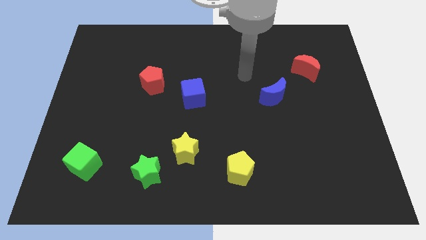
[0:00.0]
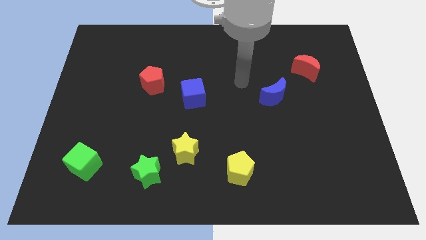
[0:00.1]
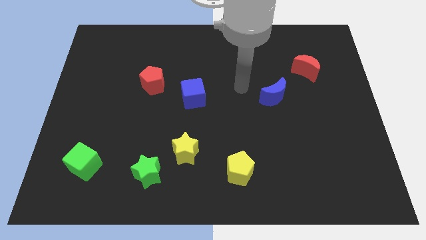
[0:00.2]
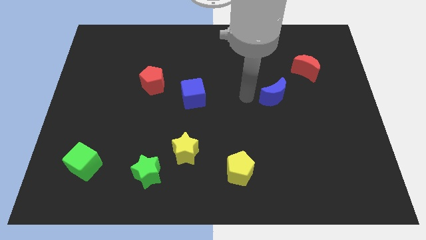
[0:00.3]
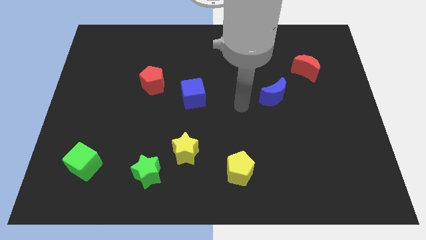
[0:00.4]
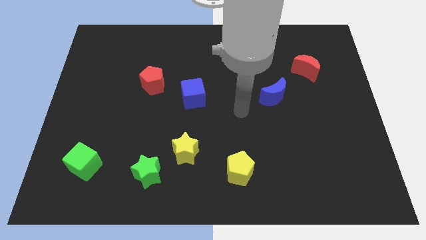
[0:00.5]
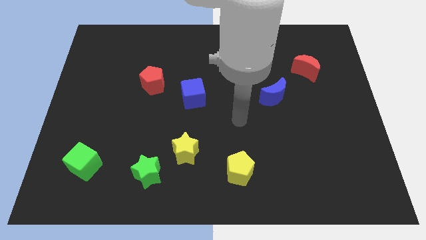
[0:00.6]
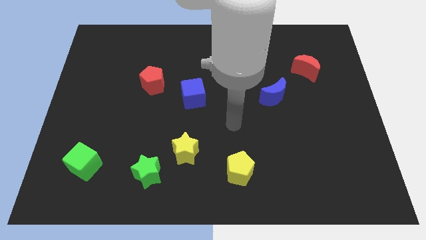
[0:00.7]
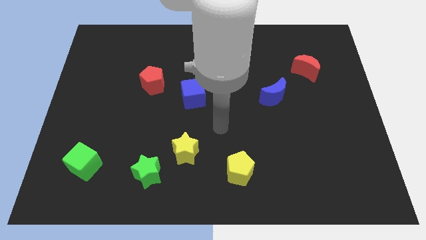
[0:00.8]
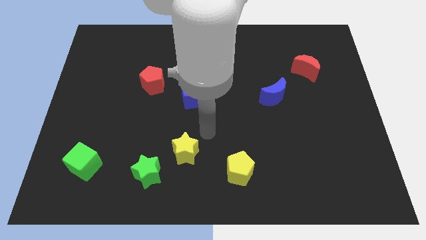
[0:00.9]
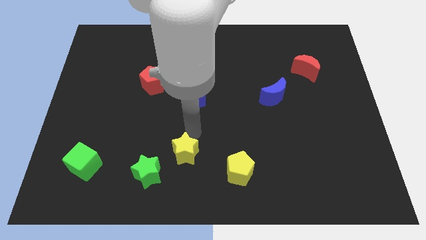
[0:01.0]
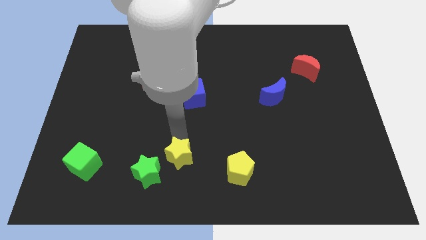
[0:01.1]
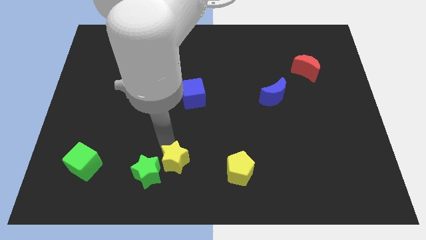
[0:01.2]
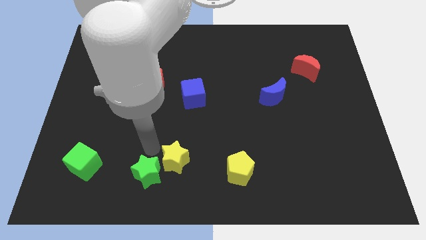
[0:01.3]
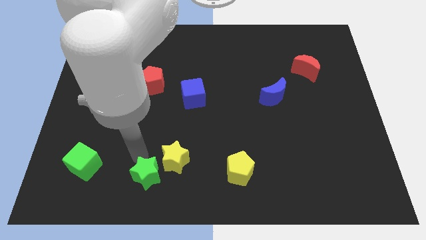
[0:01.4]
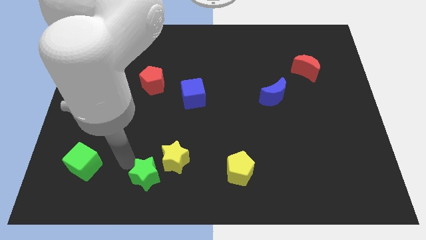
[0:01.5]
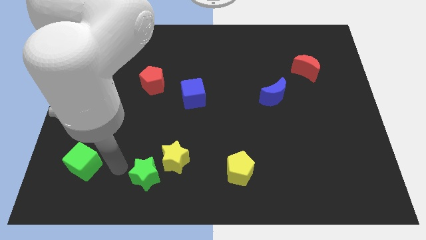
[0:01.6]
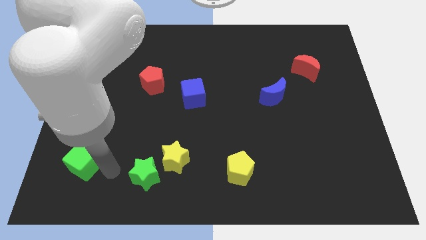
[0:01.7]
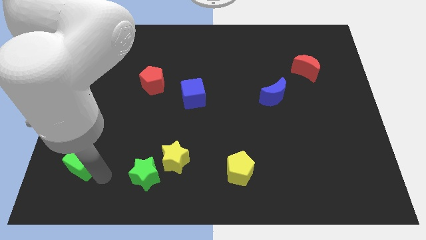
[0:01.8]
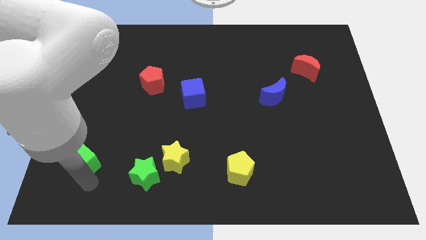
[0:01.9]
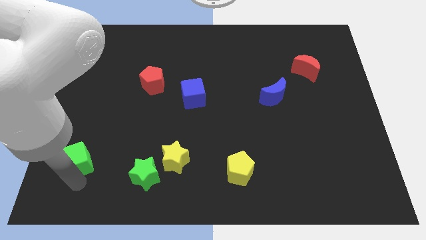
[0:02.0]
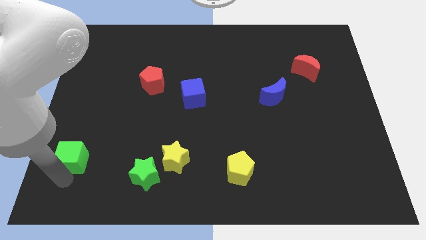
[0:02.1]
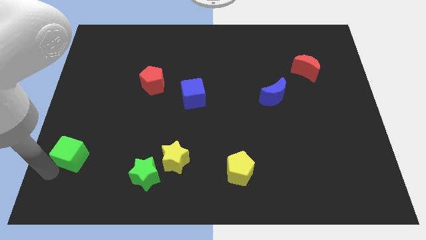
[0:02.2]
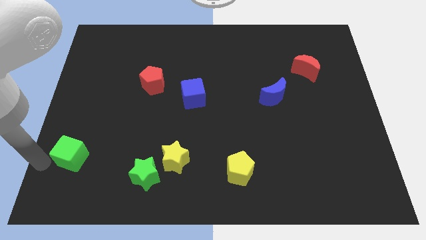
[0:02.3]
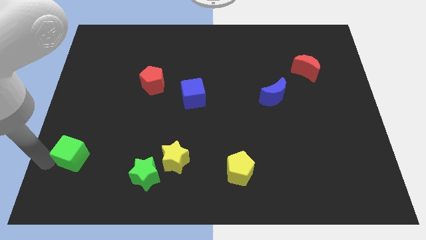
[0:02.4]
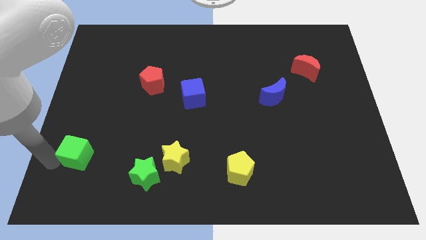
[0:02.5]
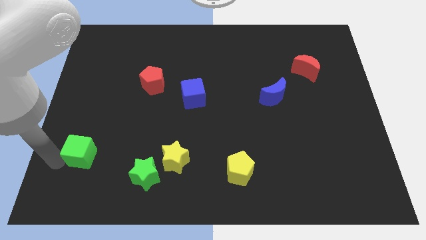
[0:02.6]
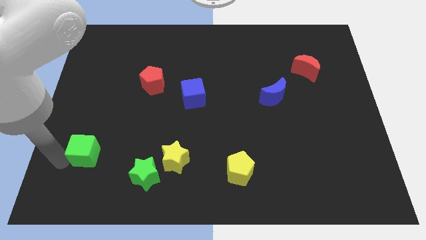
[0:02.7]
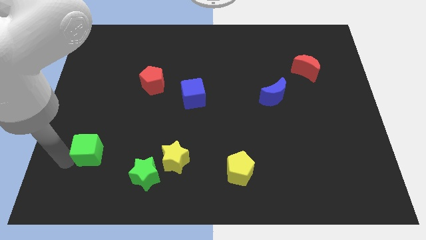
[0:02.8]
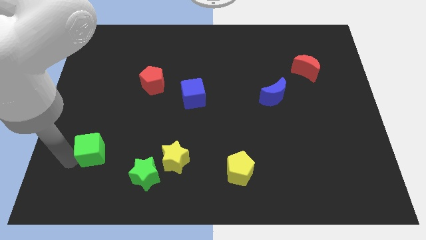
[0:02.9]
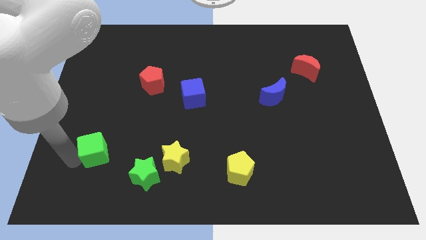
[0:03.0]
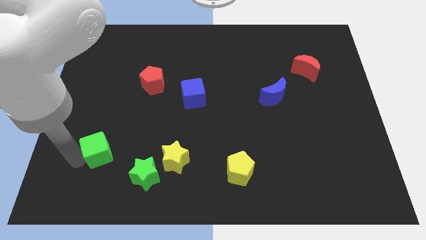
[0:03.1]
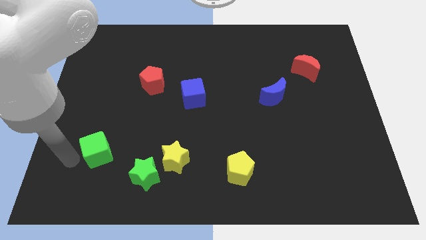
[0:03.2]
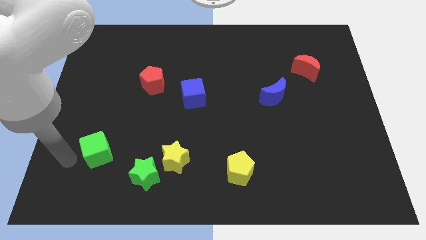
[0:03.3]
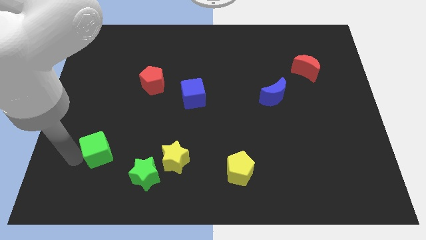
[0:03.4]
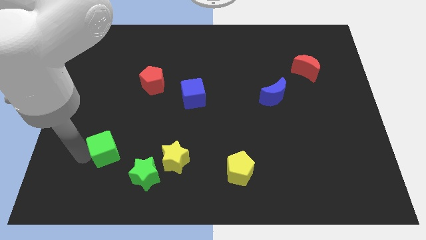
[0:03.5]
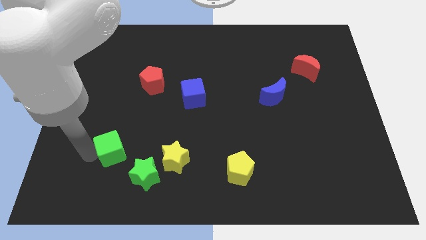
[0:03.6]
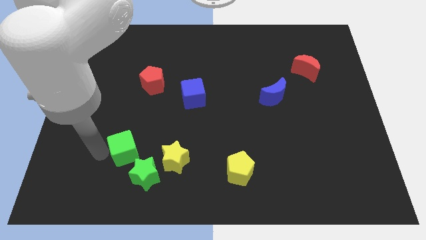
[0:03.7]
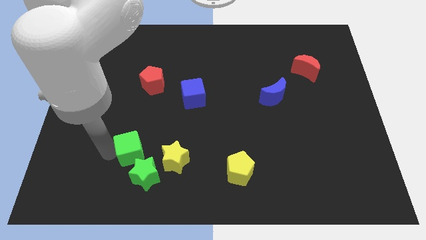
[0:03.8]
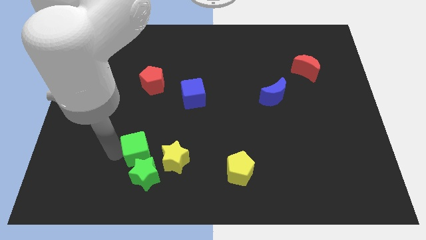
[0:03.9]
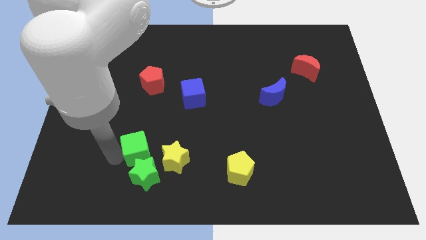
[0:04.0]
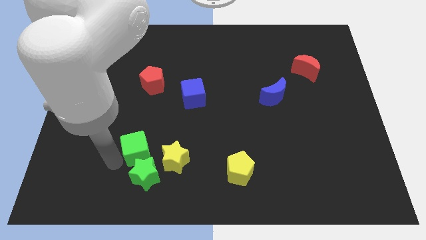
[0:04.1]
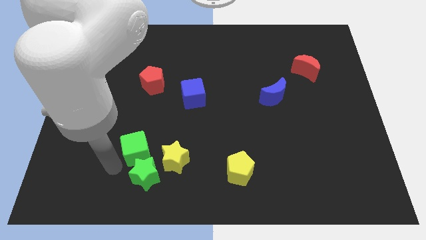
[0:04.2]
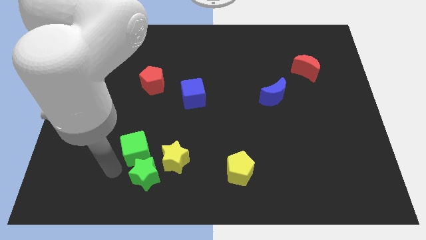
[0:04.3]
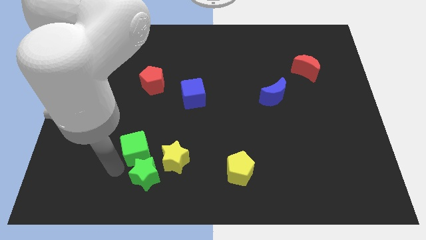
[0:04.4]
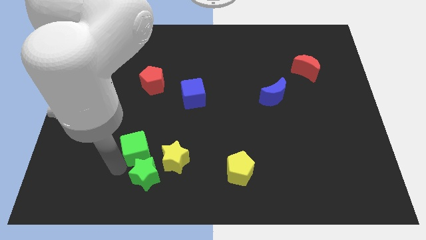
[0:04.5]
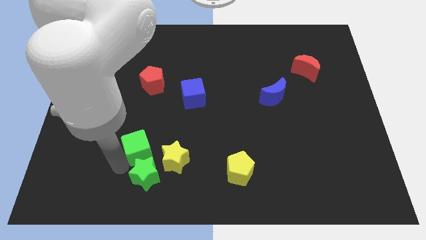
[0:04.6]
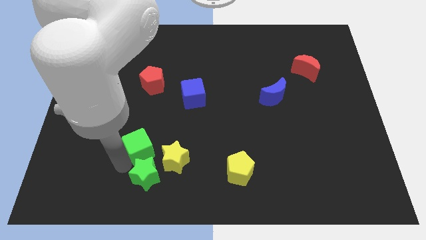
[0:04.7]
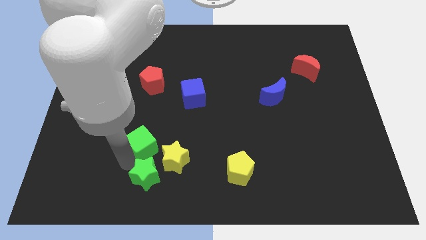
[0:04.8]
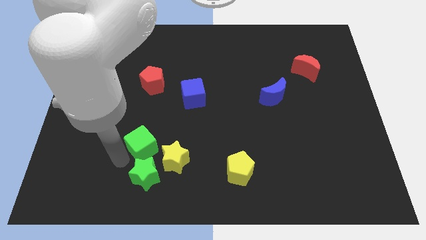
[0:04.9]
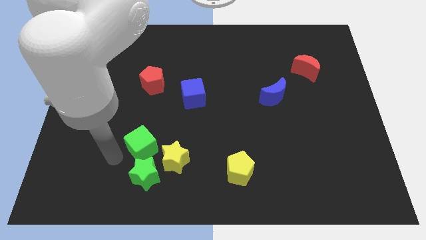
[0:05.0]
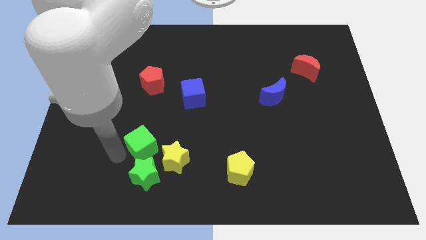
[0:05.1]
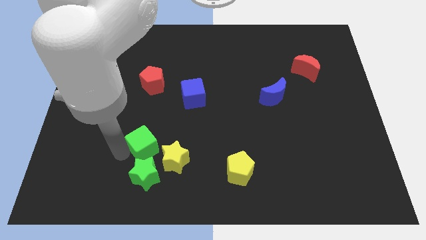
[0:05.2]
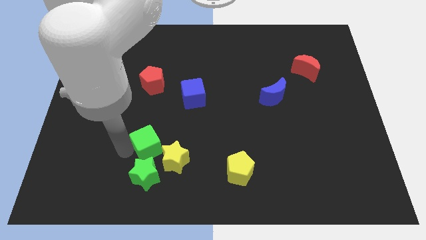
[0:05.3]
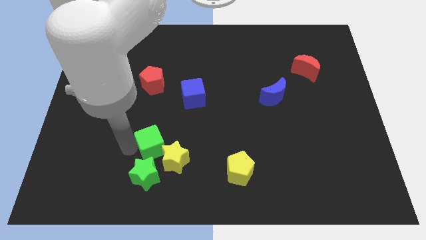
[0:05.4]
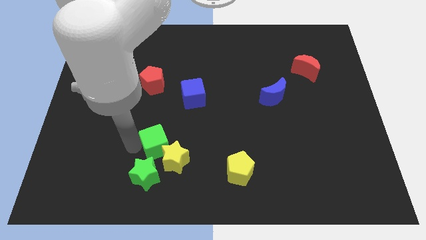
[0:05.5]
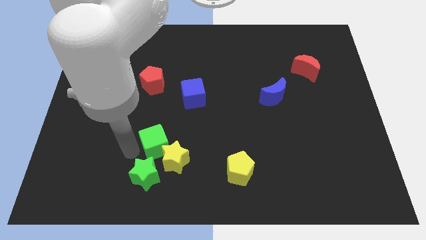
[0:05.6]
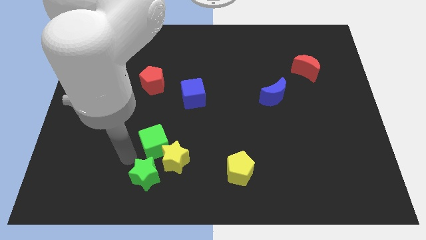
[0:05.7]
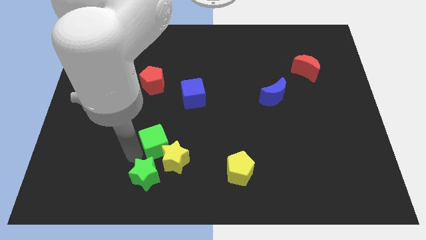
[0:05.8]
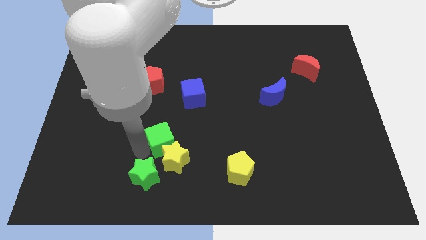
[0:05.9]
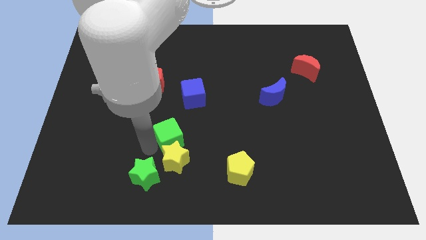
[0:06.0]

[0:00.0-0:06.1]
put the green cube to the top right side of the yellow star

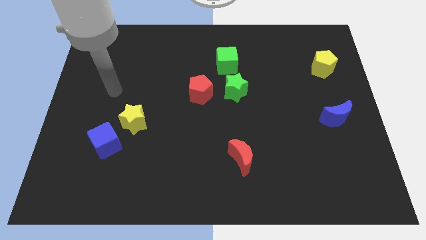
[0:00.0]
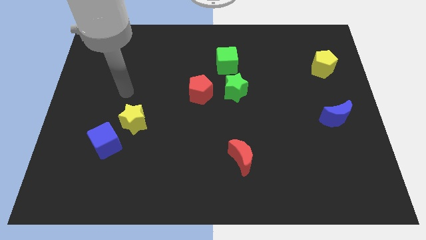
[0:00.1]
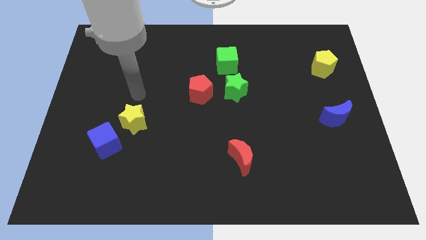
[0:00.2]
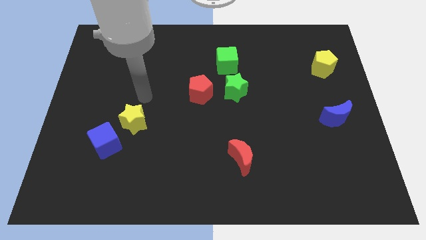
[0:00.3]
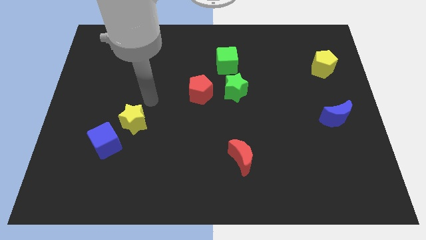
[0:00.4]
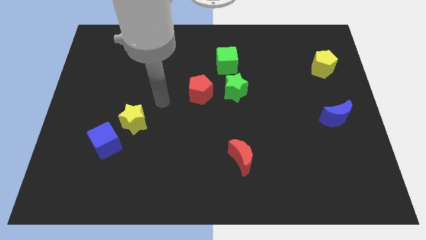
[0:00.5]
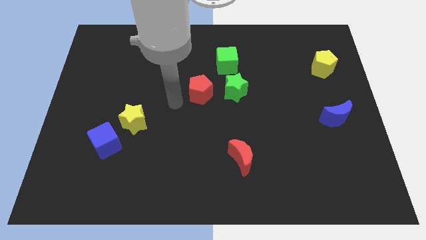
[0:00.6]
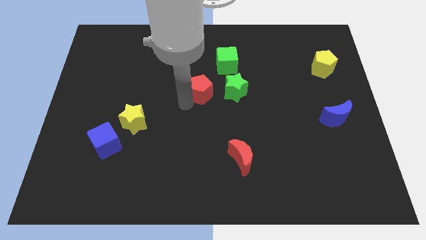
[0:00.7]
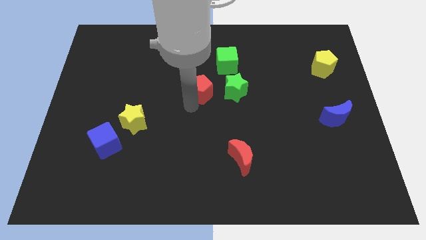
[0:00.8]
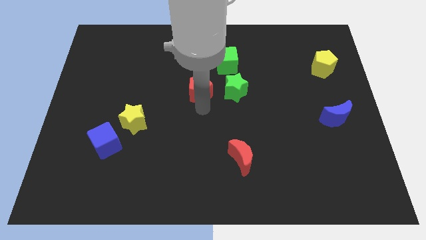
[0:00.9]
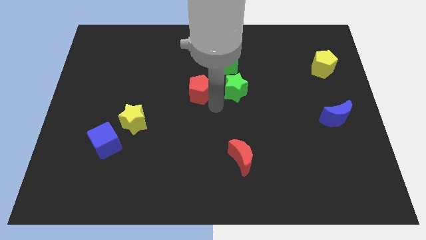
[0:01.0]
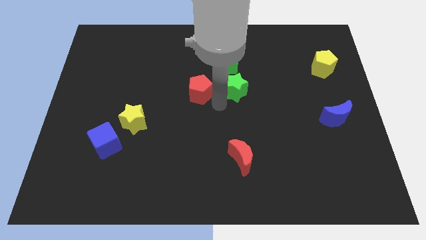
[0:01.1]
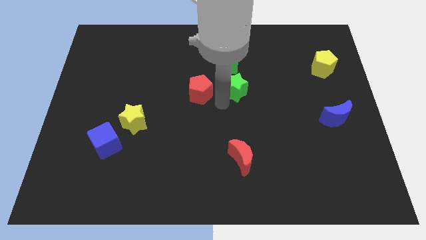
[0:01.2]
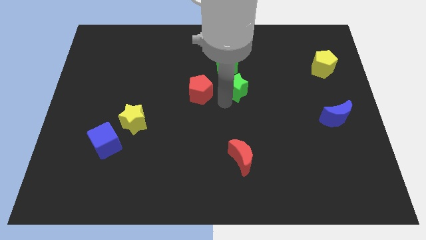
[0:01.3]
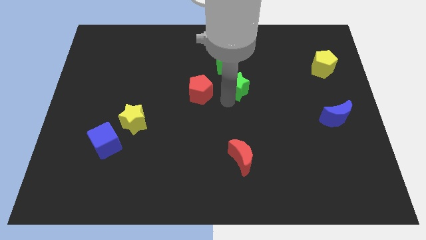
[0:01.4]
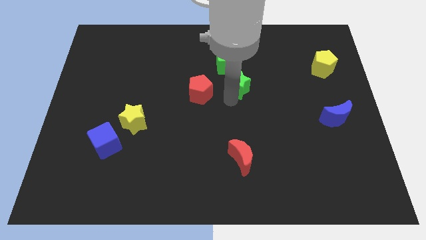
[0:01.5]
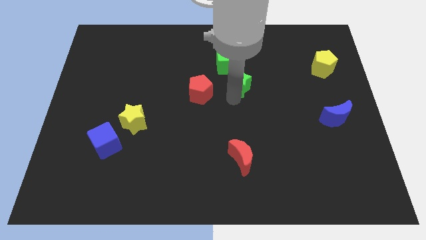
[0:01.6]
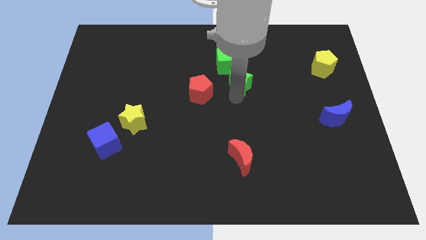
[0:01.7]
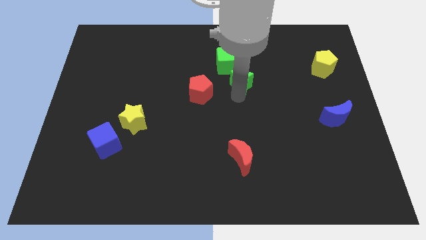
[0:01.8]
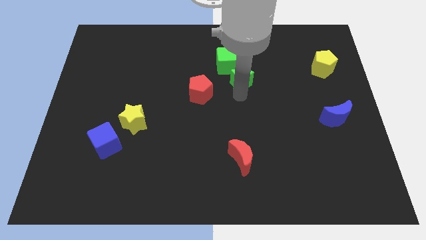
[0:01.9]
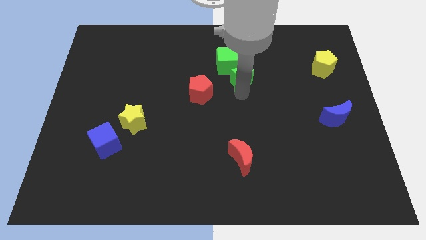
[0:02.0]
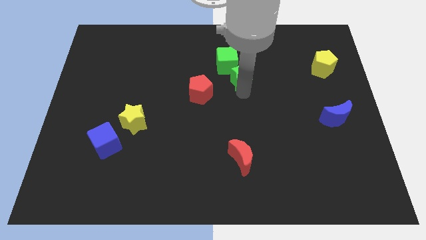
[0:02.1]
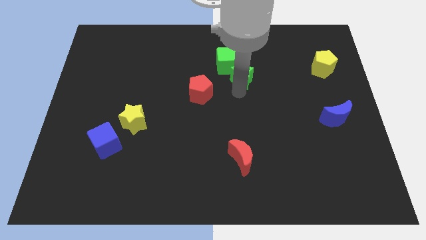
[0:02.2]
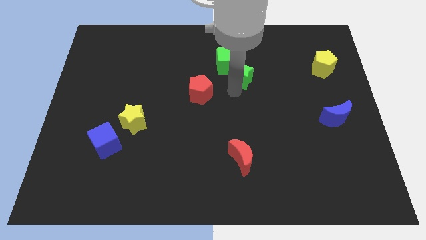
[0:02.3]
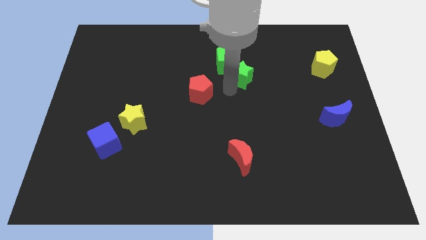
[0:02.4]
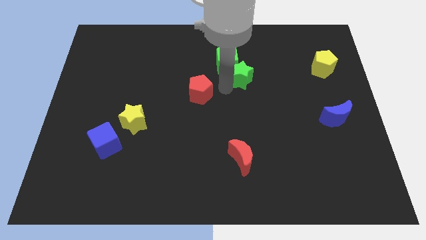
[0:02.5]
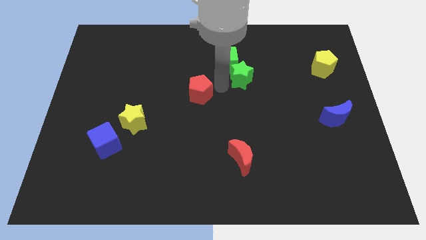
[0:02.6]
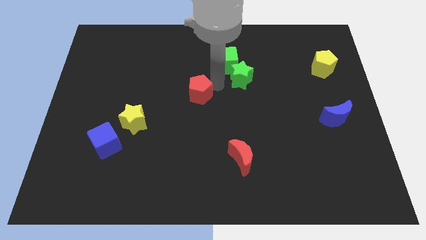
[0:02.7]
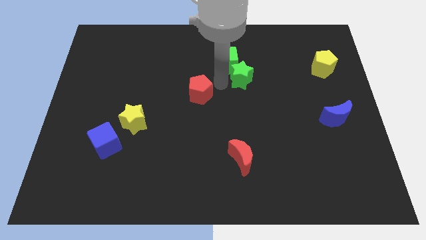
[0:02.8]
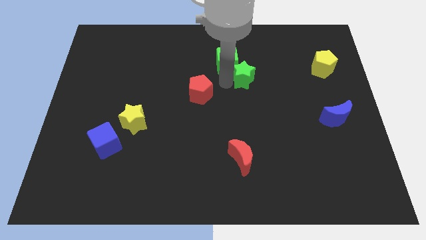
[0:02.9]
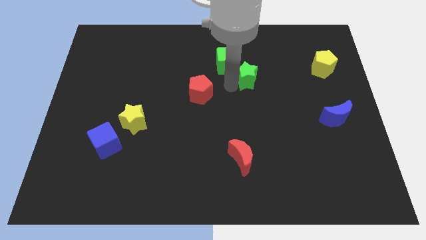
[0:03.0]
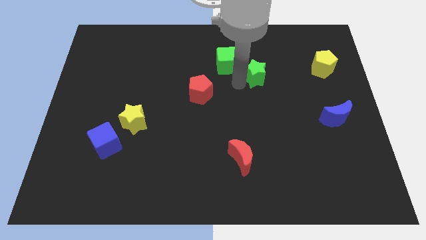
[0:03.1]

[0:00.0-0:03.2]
slide the green star just right of the green cube
